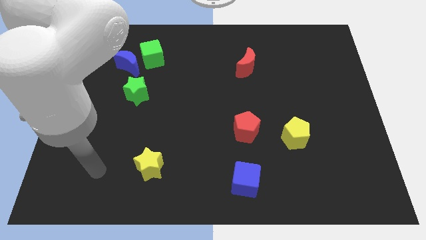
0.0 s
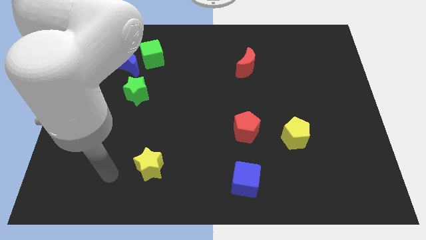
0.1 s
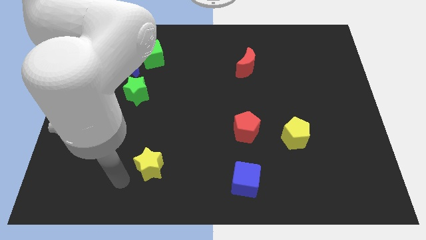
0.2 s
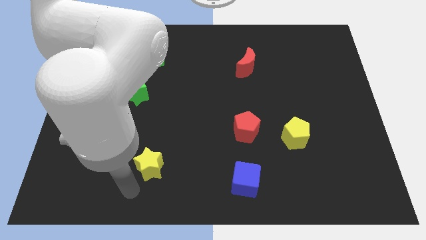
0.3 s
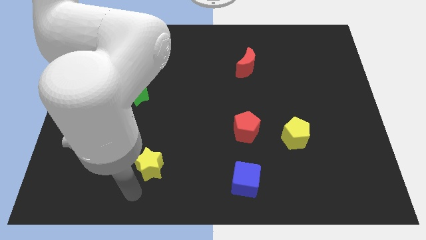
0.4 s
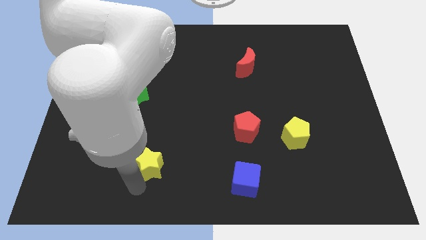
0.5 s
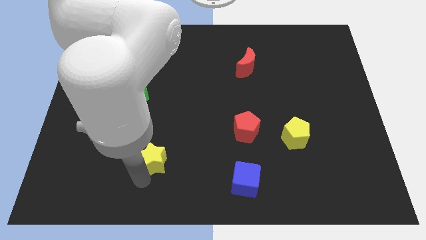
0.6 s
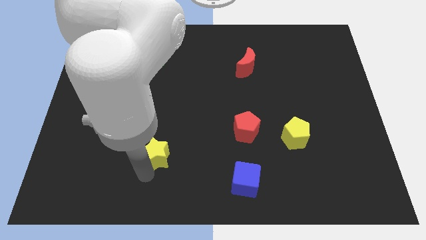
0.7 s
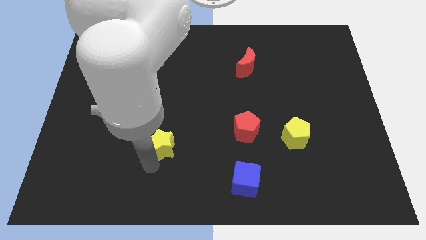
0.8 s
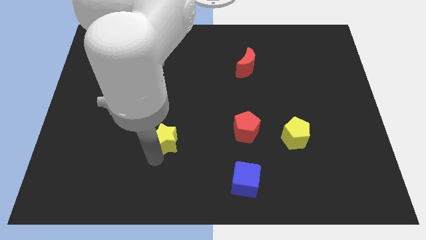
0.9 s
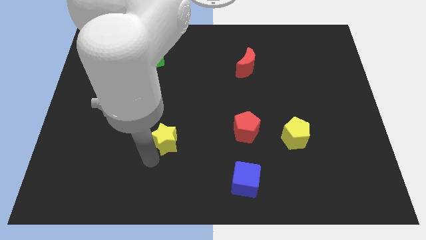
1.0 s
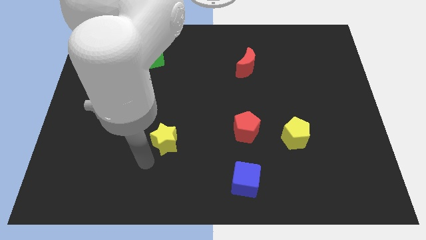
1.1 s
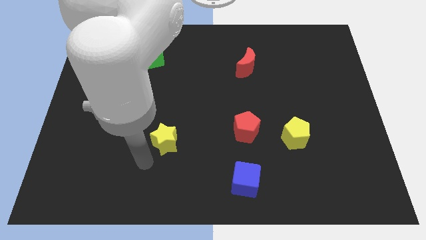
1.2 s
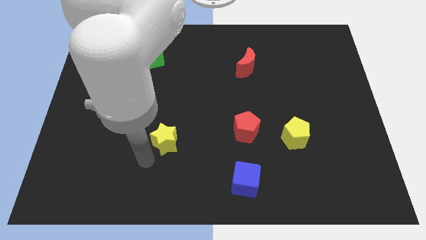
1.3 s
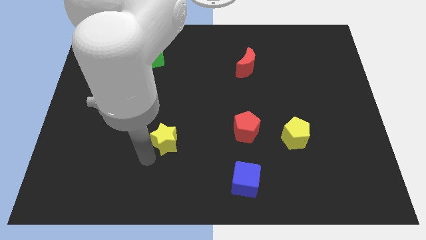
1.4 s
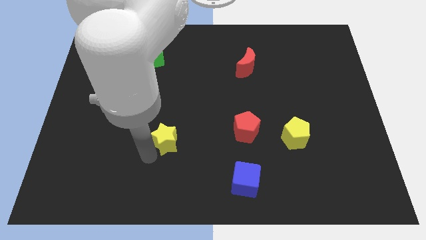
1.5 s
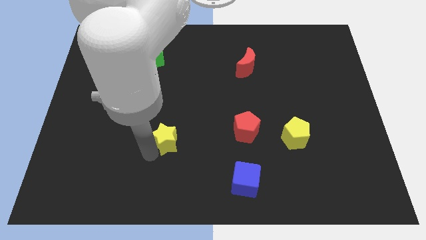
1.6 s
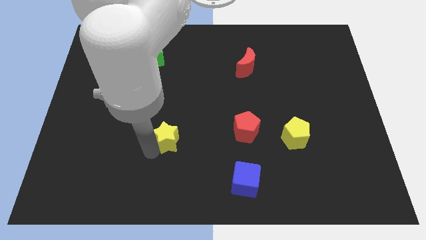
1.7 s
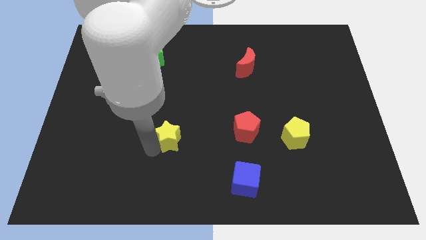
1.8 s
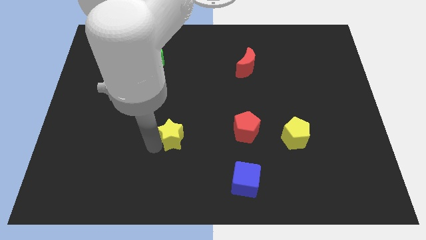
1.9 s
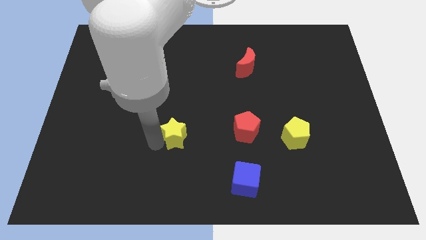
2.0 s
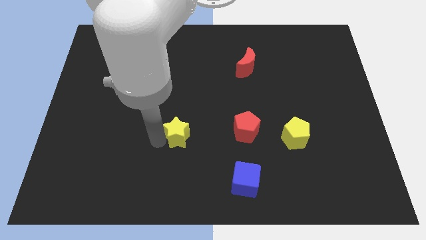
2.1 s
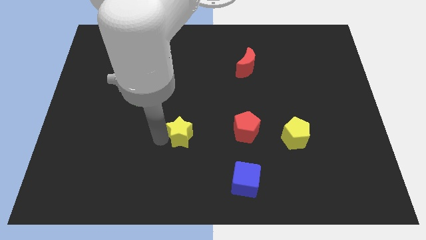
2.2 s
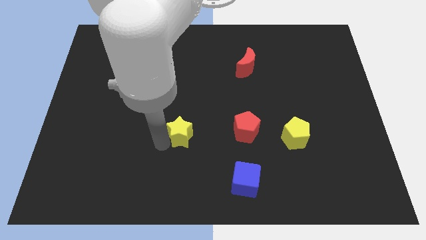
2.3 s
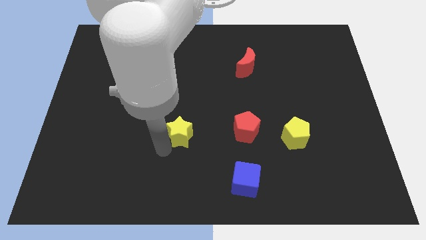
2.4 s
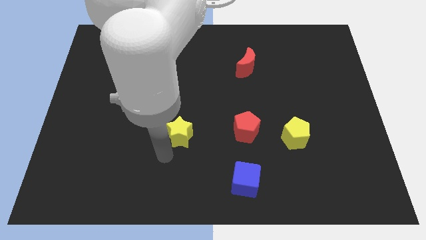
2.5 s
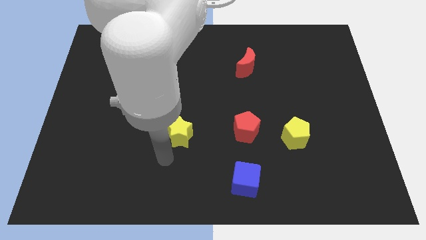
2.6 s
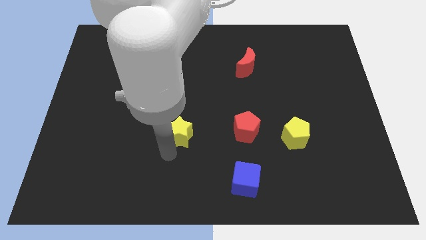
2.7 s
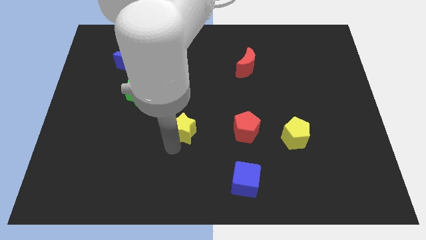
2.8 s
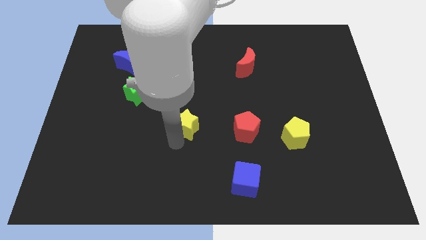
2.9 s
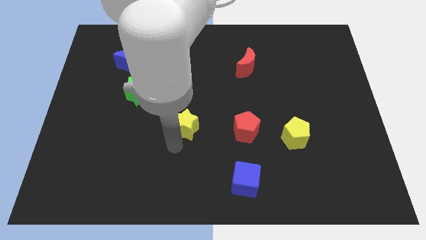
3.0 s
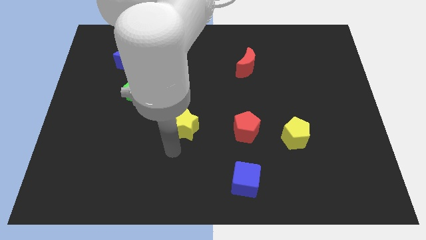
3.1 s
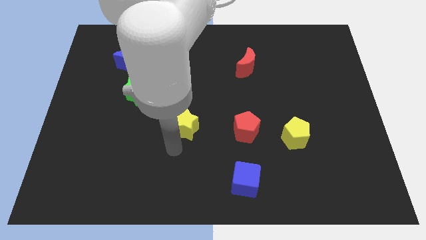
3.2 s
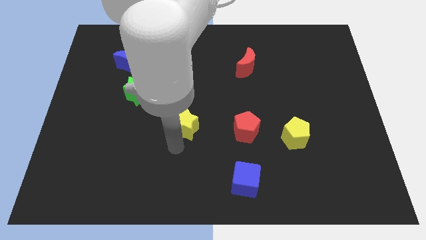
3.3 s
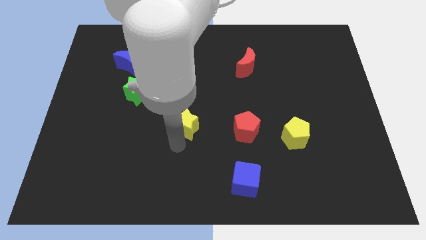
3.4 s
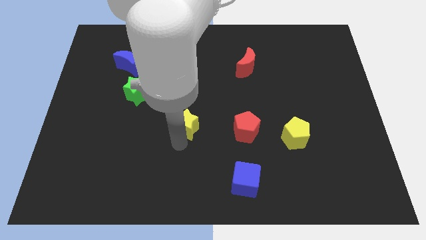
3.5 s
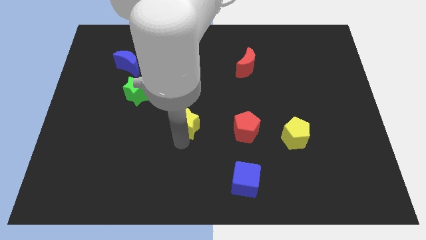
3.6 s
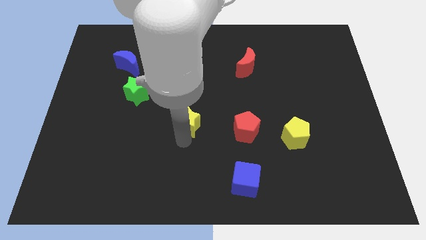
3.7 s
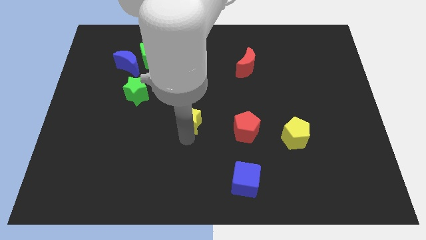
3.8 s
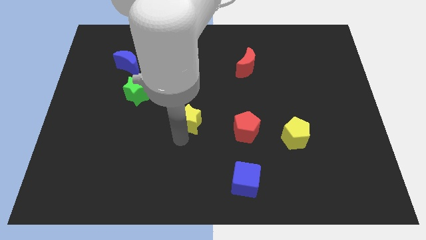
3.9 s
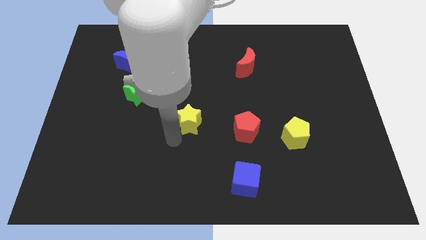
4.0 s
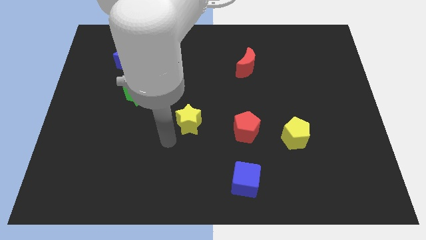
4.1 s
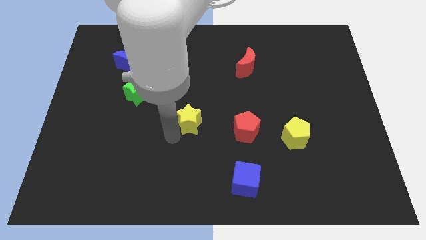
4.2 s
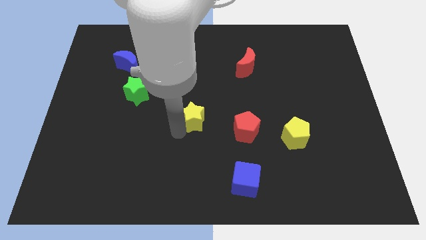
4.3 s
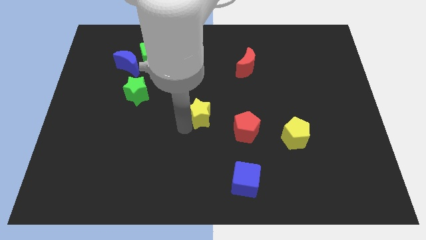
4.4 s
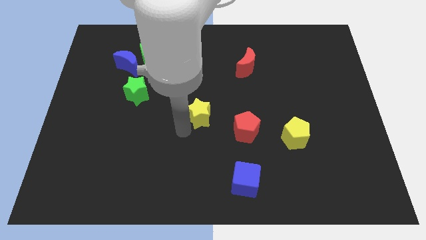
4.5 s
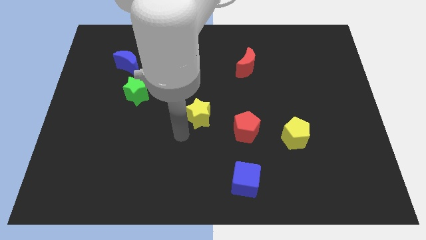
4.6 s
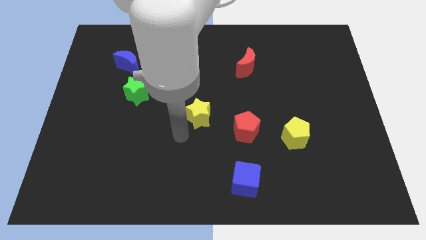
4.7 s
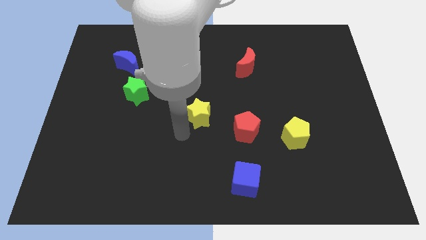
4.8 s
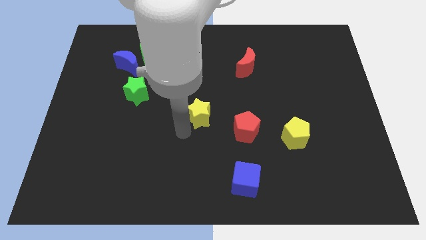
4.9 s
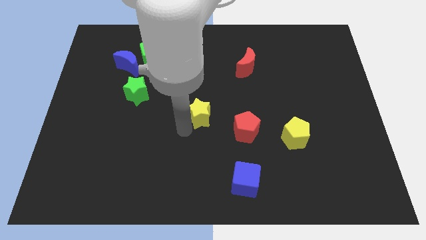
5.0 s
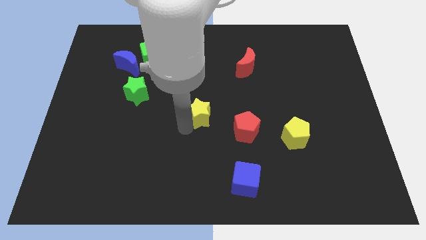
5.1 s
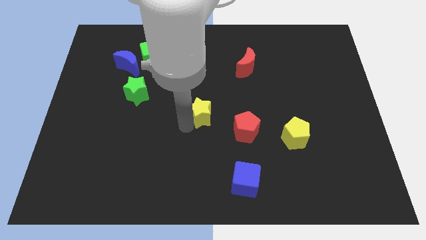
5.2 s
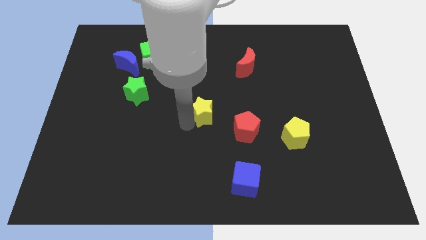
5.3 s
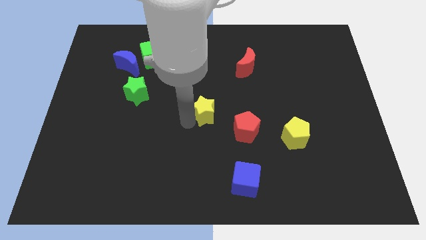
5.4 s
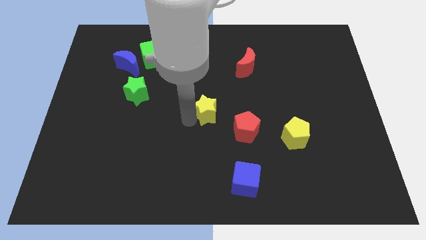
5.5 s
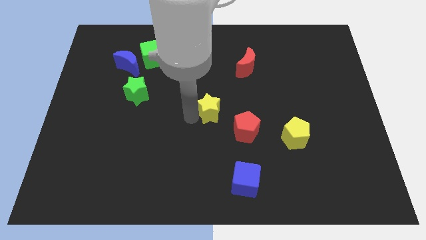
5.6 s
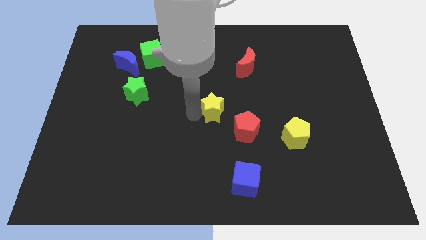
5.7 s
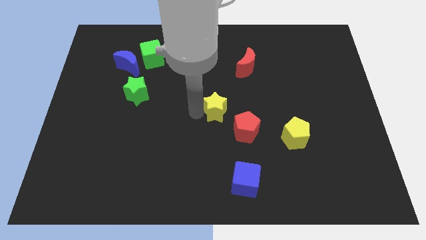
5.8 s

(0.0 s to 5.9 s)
push the yellow star upwards and then right

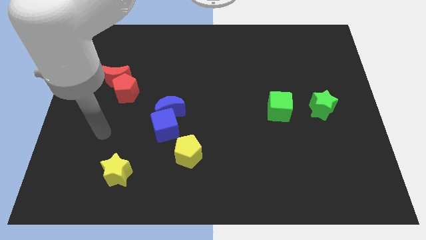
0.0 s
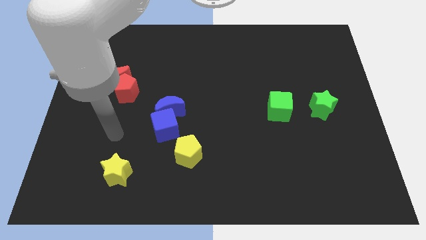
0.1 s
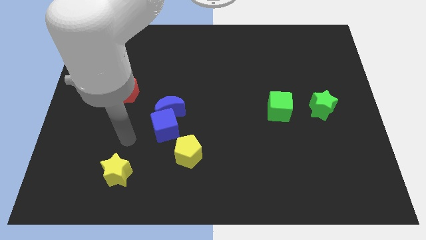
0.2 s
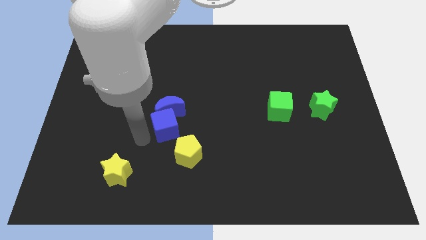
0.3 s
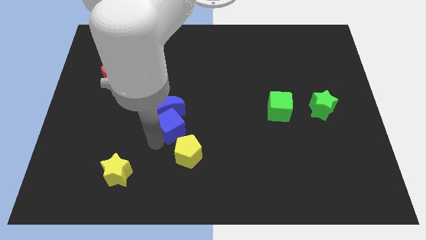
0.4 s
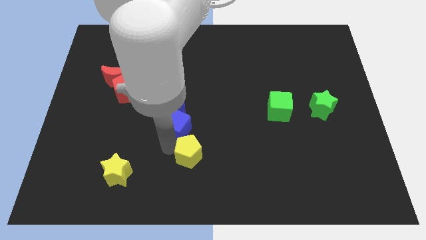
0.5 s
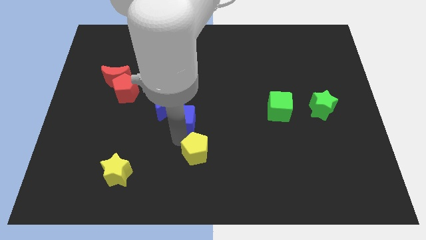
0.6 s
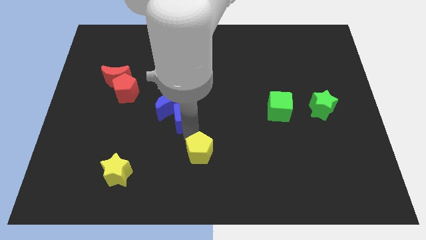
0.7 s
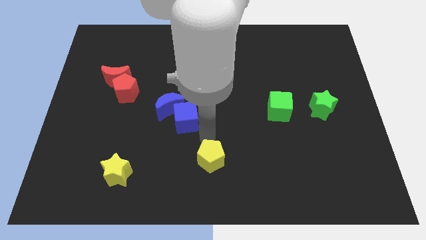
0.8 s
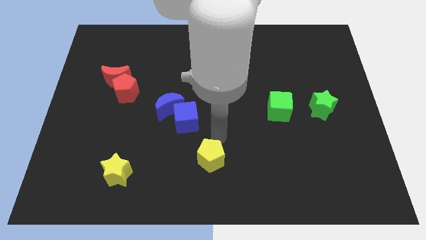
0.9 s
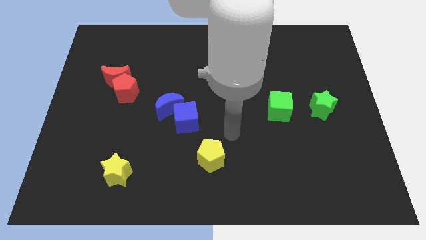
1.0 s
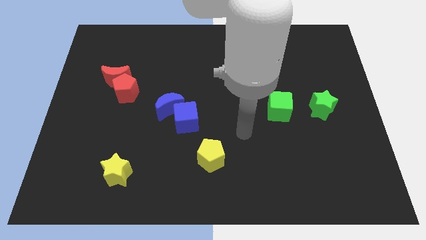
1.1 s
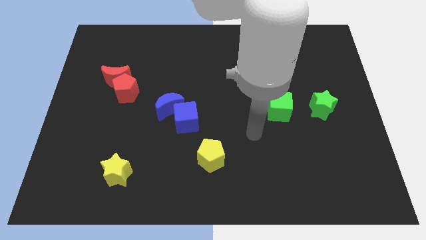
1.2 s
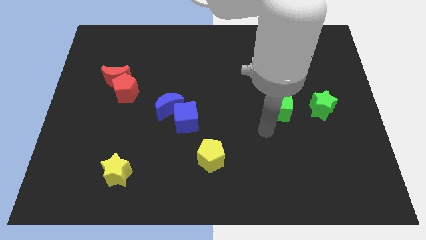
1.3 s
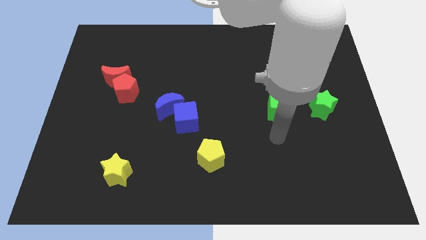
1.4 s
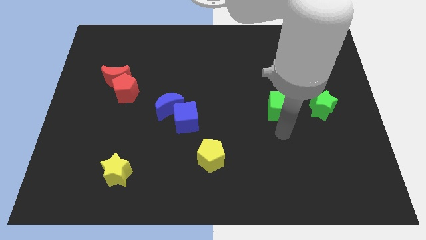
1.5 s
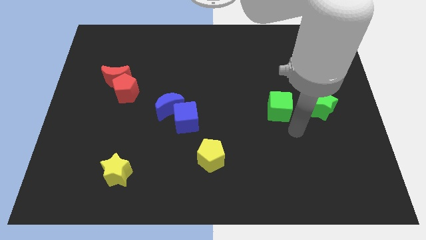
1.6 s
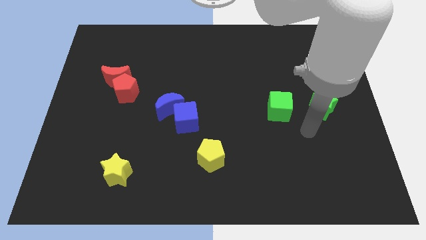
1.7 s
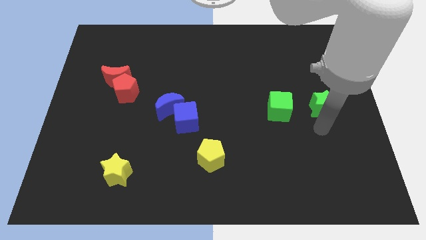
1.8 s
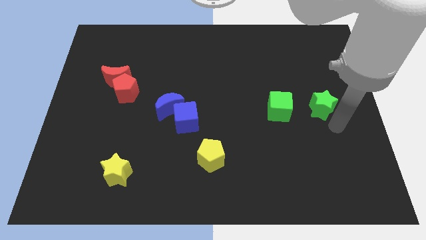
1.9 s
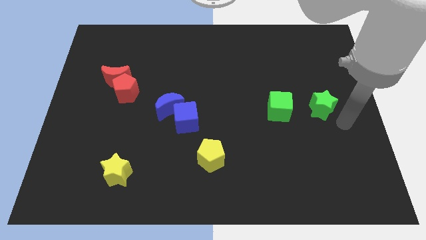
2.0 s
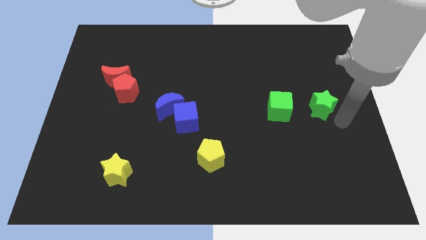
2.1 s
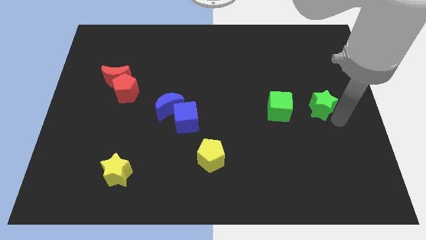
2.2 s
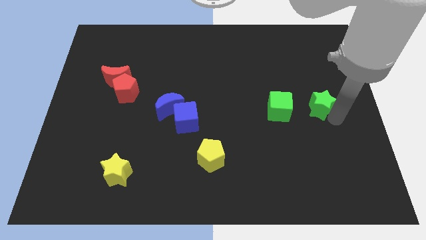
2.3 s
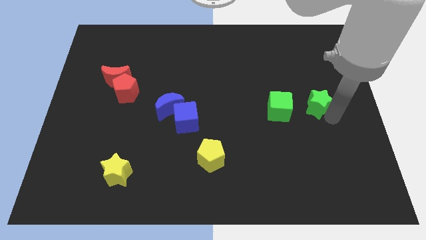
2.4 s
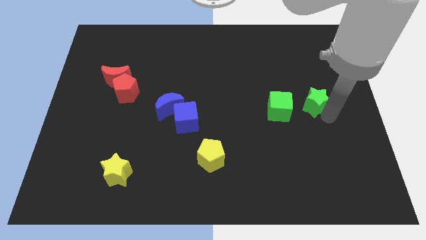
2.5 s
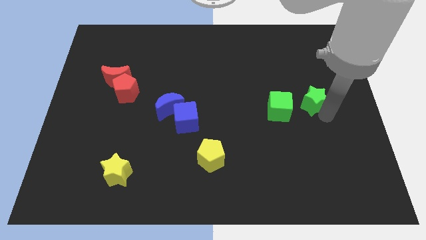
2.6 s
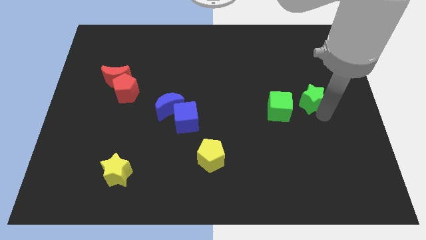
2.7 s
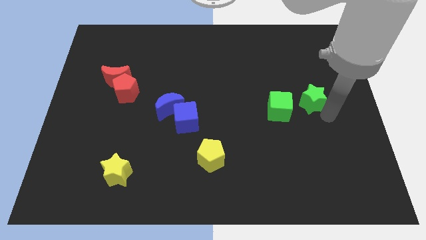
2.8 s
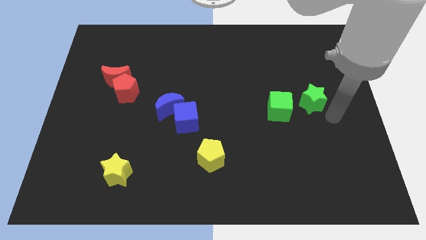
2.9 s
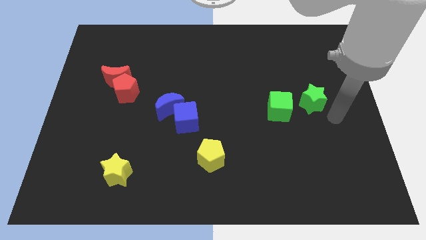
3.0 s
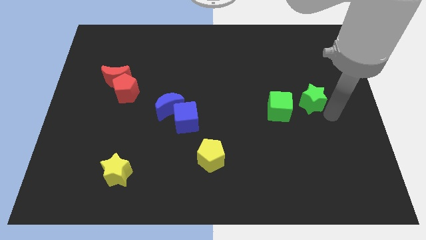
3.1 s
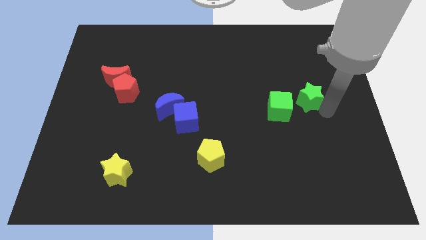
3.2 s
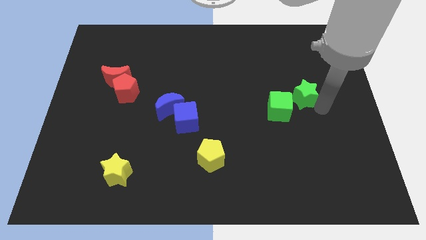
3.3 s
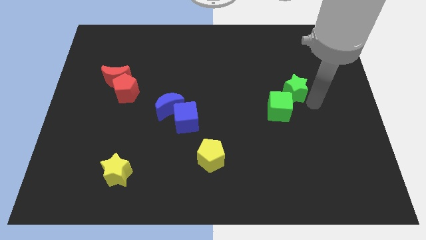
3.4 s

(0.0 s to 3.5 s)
move the green star diagonally up and to the left somewhat
